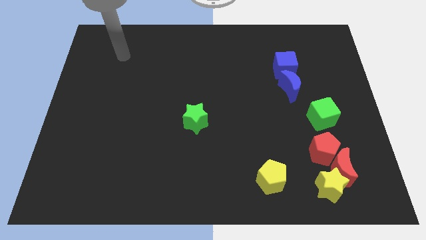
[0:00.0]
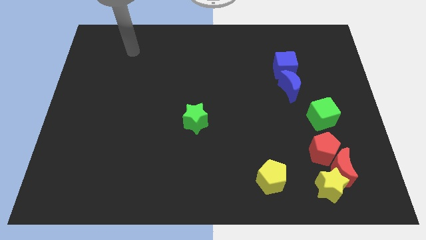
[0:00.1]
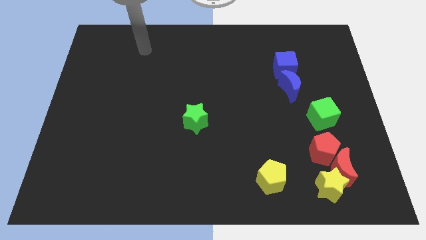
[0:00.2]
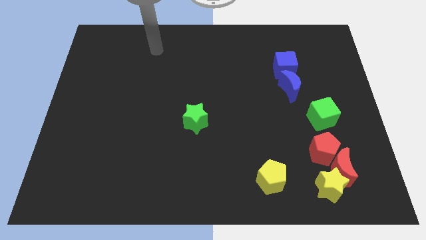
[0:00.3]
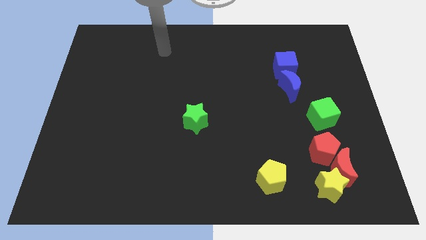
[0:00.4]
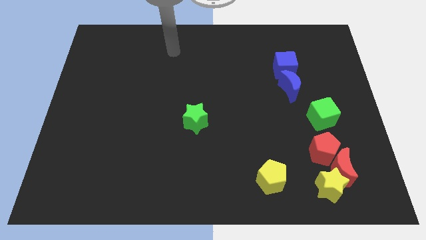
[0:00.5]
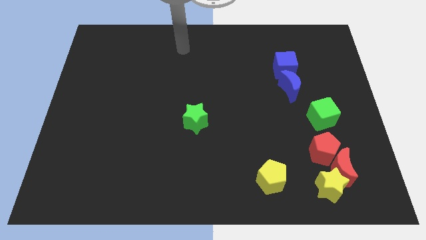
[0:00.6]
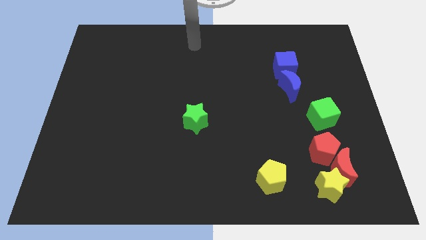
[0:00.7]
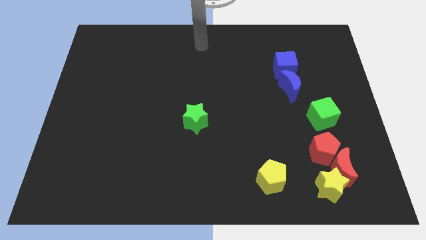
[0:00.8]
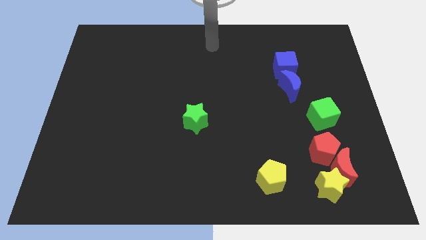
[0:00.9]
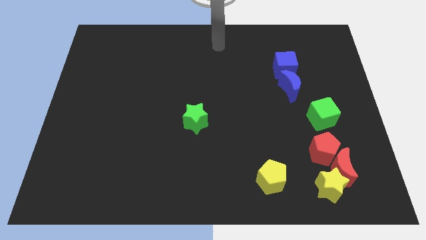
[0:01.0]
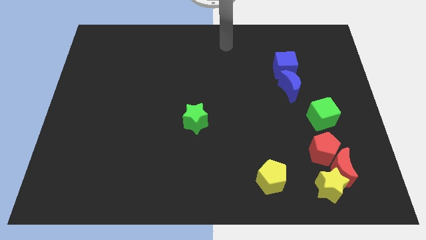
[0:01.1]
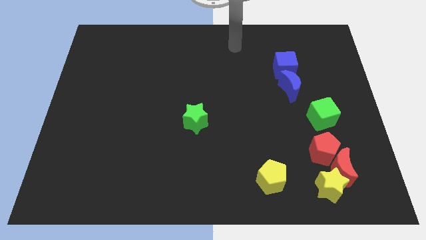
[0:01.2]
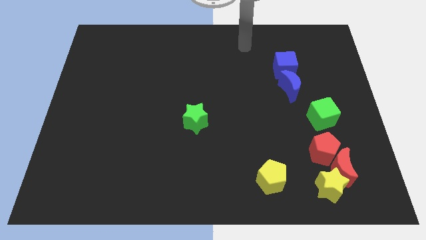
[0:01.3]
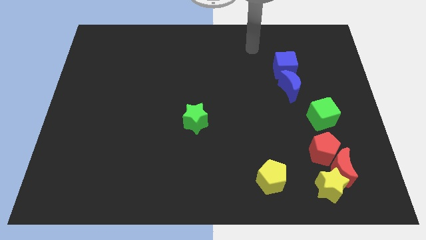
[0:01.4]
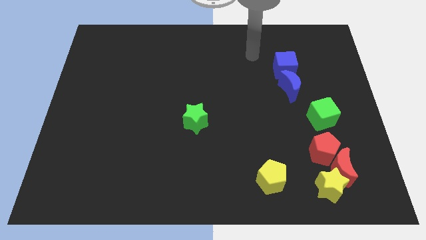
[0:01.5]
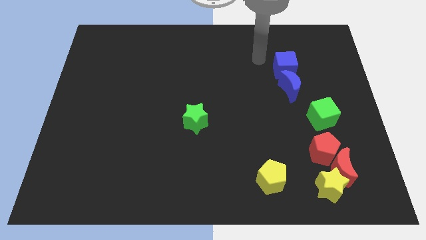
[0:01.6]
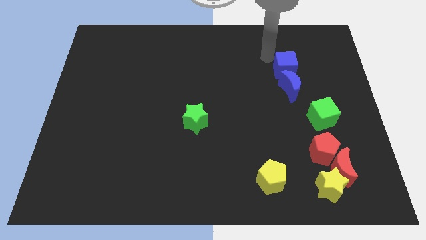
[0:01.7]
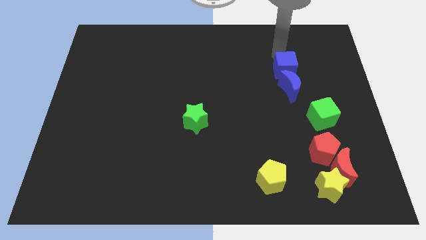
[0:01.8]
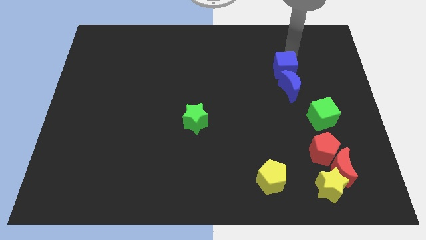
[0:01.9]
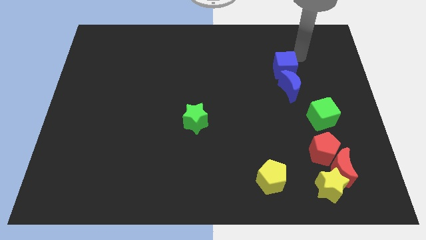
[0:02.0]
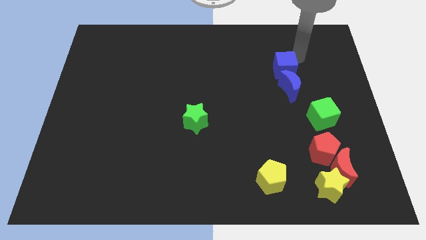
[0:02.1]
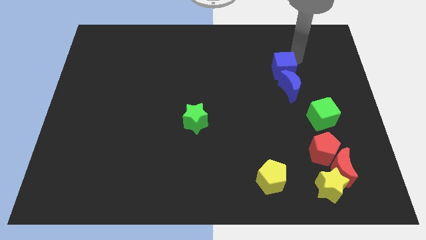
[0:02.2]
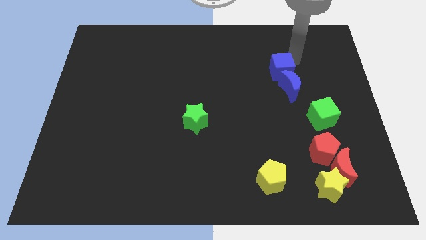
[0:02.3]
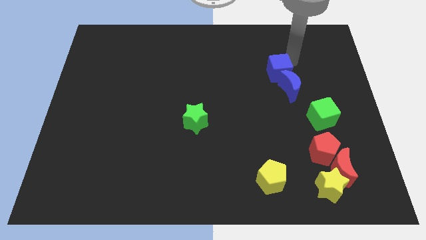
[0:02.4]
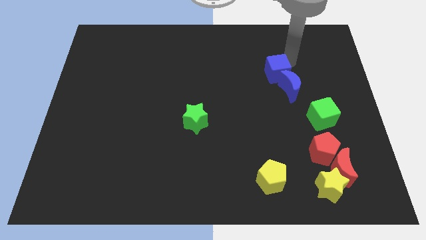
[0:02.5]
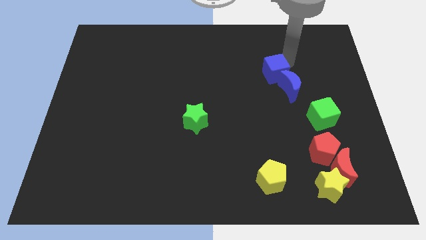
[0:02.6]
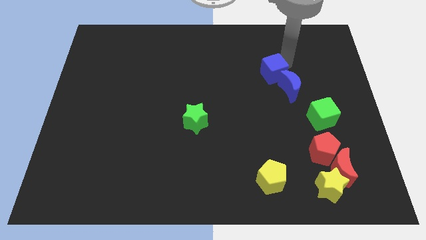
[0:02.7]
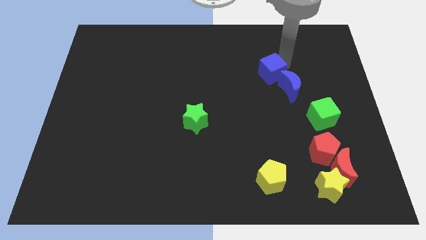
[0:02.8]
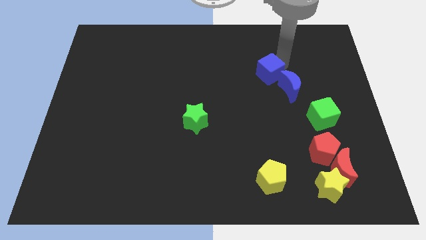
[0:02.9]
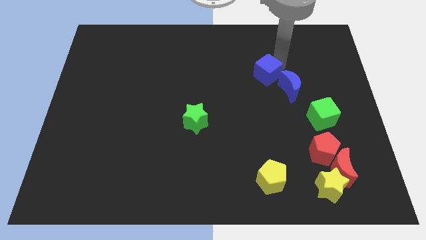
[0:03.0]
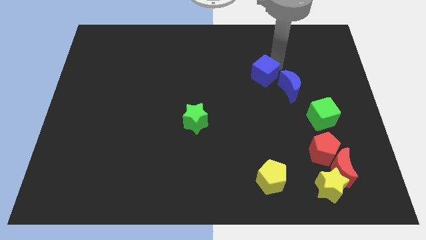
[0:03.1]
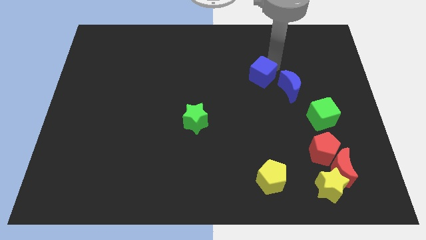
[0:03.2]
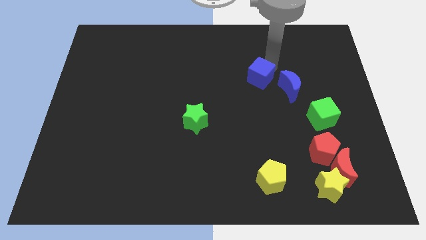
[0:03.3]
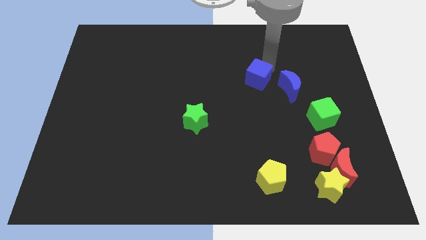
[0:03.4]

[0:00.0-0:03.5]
push the blue cube a bit downwards and then to the left

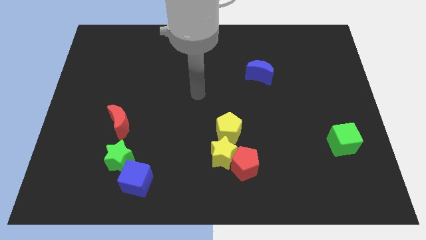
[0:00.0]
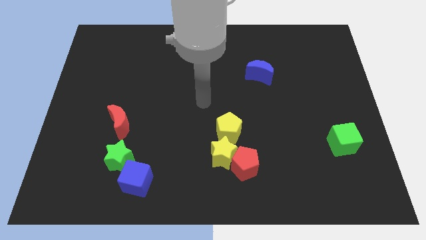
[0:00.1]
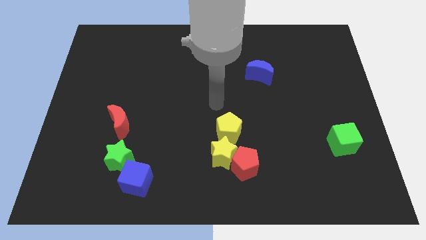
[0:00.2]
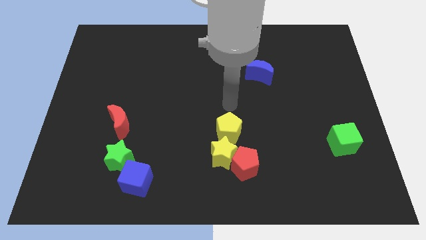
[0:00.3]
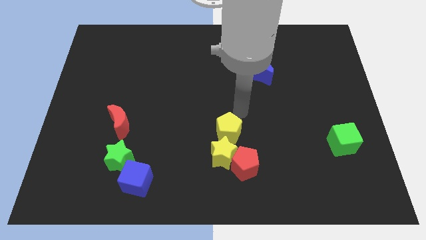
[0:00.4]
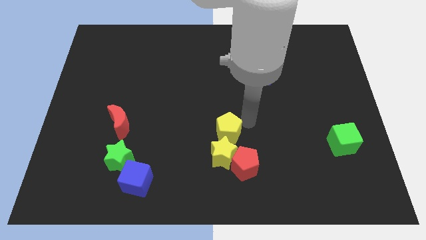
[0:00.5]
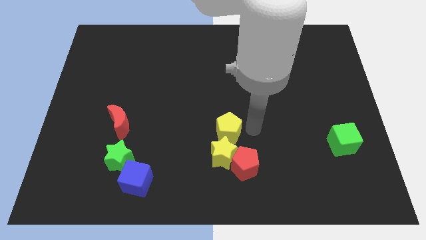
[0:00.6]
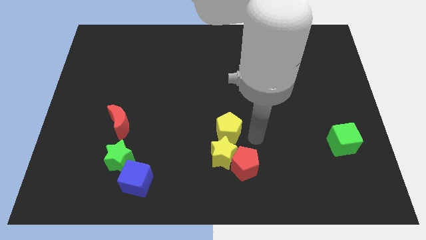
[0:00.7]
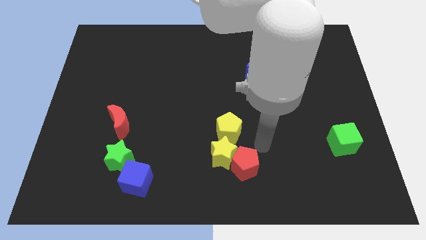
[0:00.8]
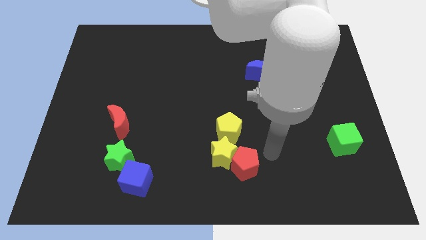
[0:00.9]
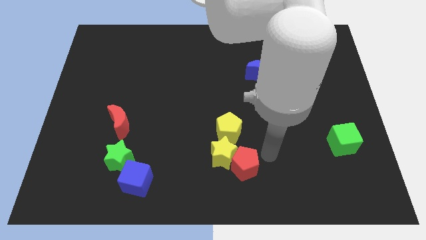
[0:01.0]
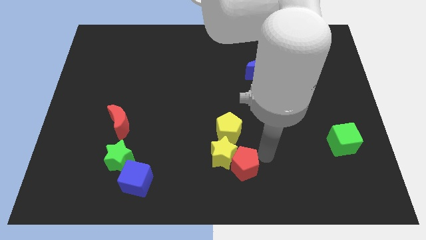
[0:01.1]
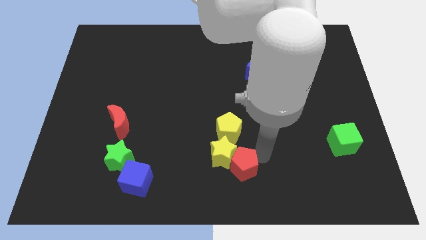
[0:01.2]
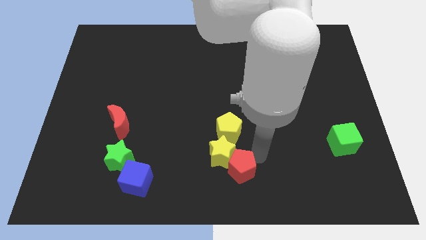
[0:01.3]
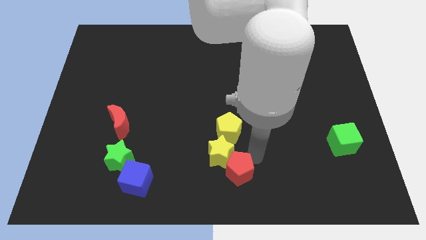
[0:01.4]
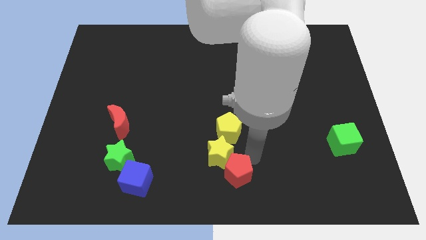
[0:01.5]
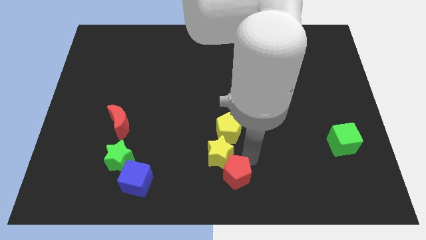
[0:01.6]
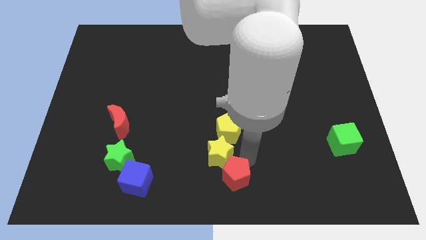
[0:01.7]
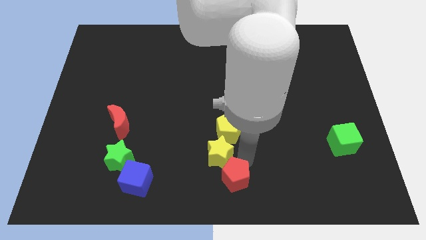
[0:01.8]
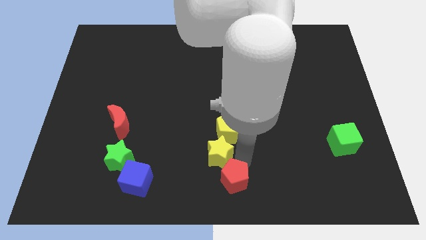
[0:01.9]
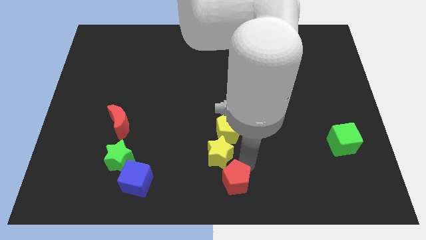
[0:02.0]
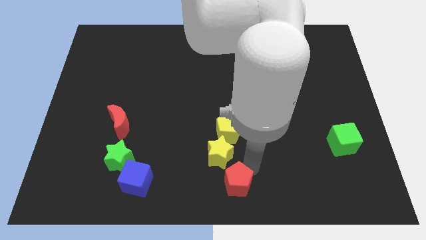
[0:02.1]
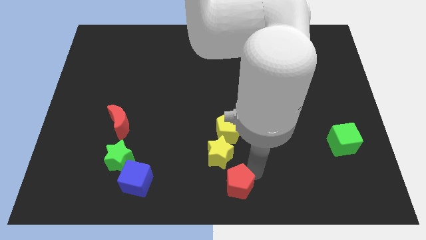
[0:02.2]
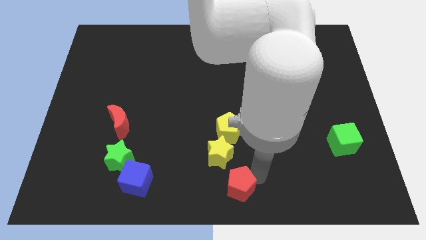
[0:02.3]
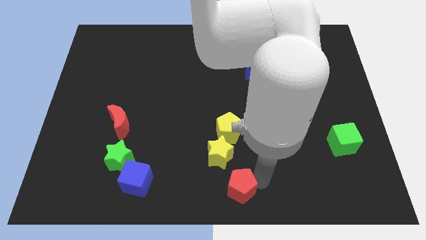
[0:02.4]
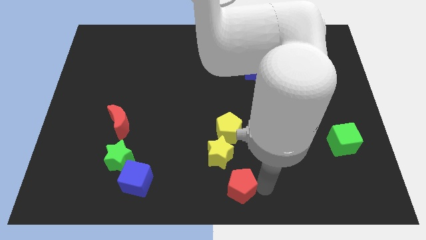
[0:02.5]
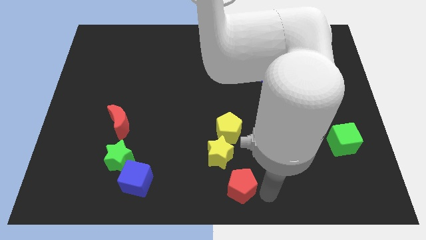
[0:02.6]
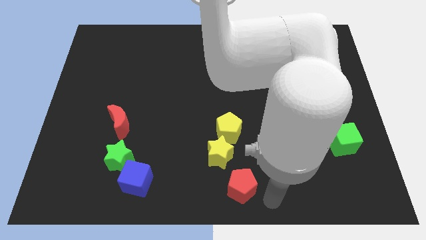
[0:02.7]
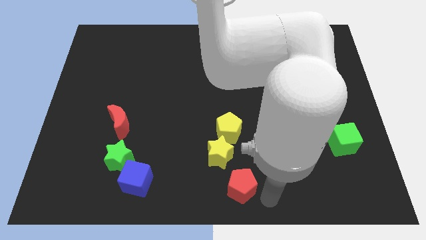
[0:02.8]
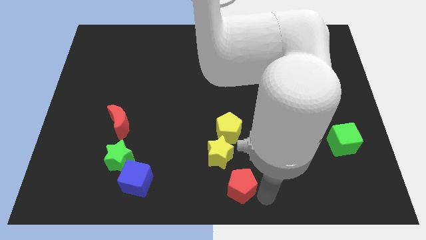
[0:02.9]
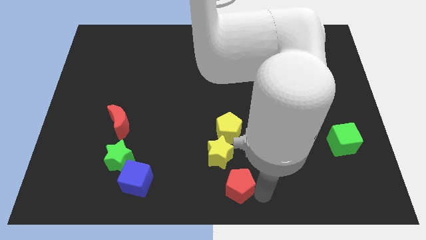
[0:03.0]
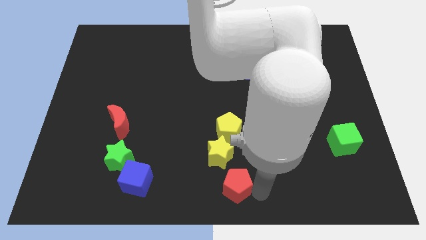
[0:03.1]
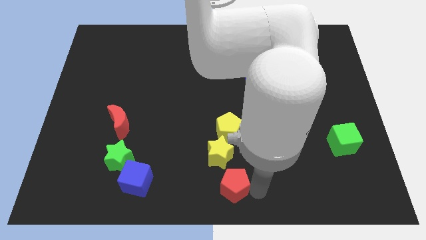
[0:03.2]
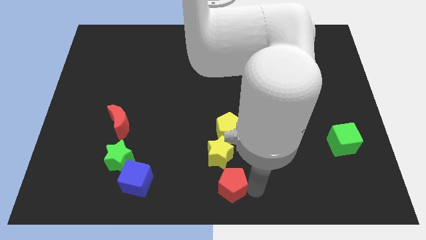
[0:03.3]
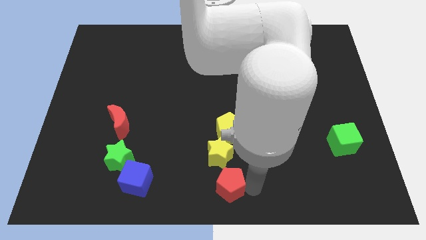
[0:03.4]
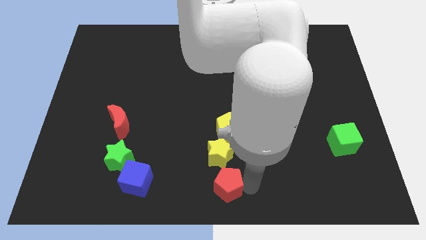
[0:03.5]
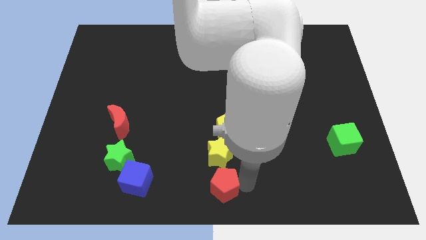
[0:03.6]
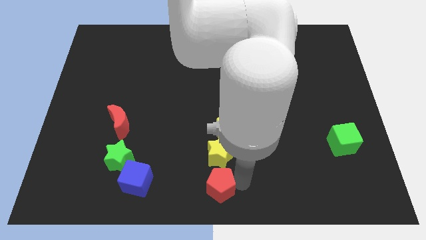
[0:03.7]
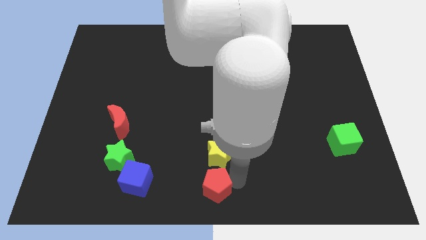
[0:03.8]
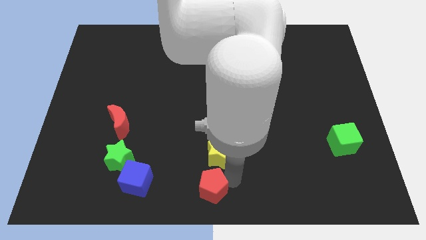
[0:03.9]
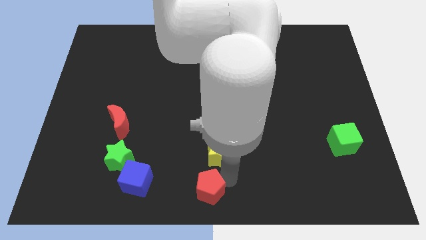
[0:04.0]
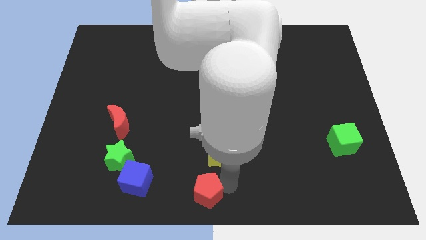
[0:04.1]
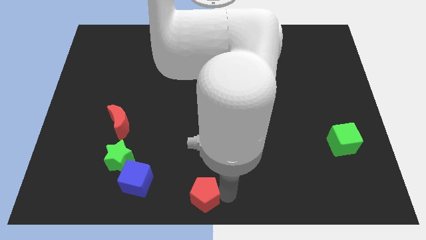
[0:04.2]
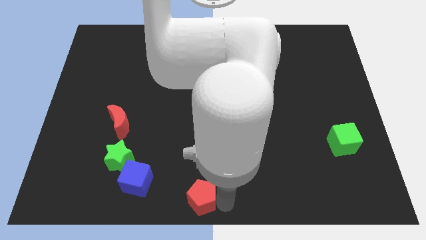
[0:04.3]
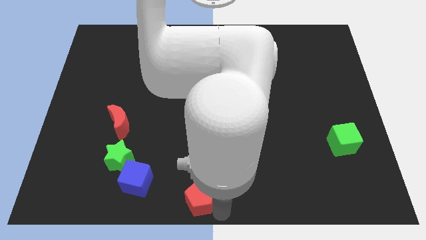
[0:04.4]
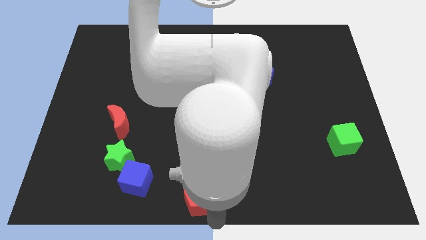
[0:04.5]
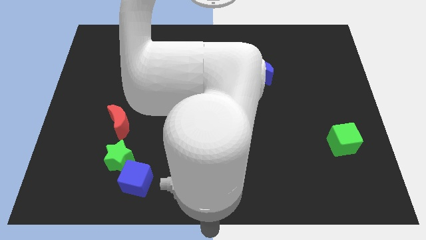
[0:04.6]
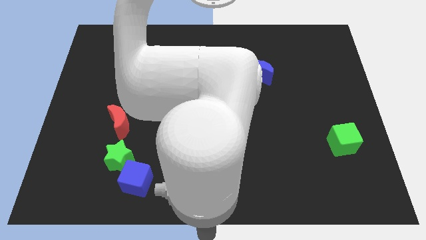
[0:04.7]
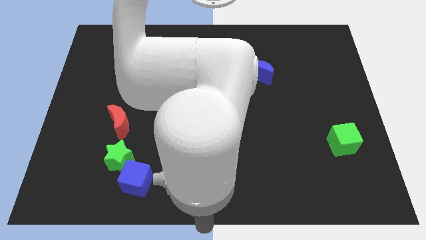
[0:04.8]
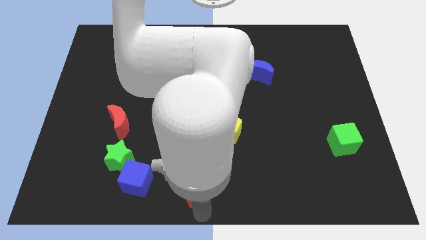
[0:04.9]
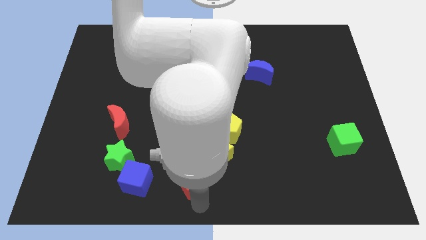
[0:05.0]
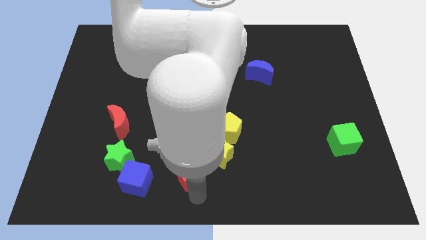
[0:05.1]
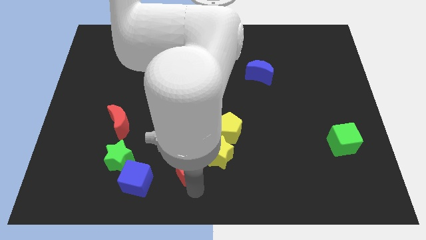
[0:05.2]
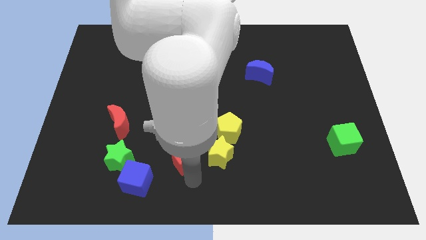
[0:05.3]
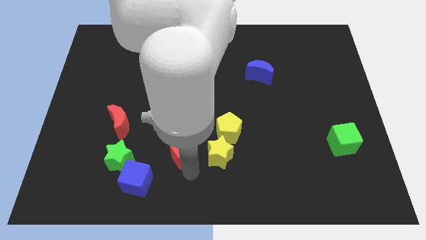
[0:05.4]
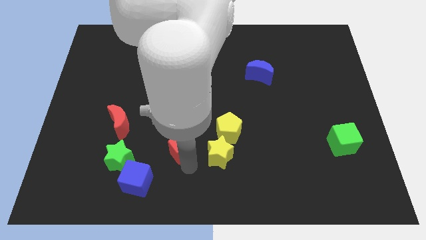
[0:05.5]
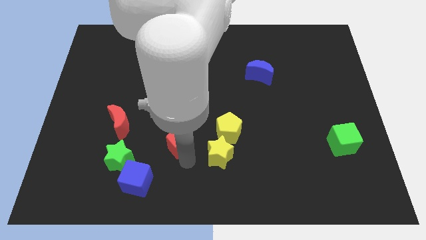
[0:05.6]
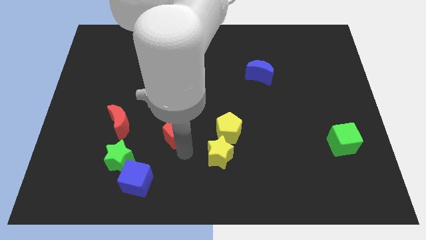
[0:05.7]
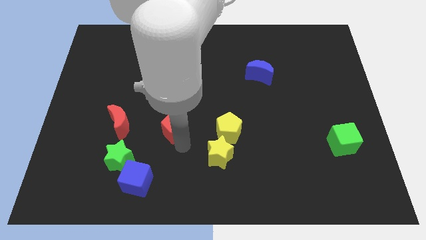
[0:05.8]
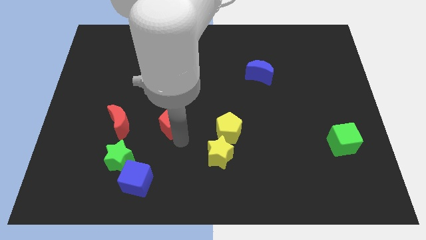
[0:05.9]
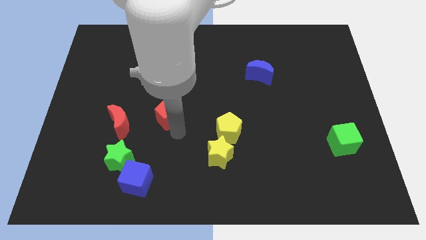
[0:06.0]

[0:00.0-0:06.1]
slide the red pentagon diagonally upwards and to the left
